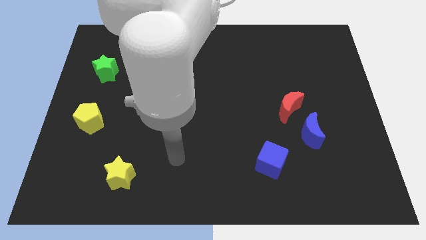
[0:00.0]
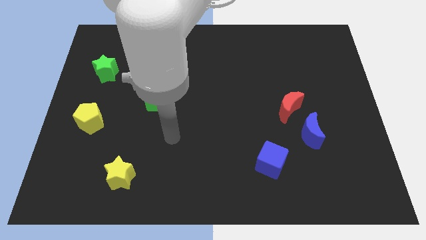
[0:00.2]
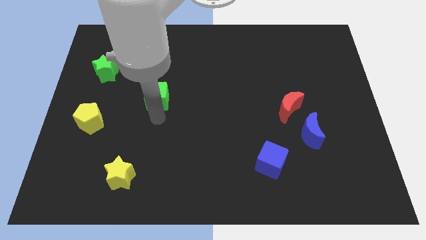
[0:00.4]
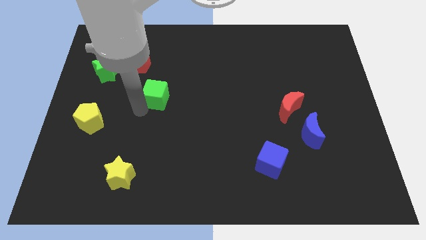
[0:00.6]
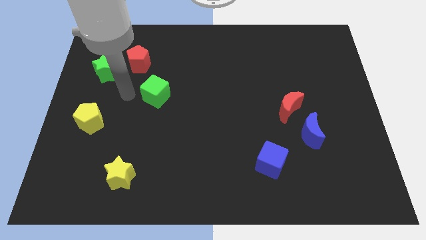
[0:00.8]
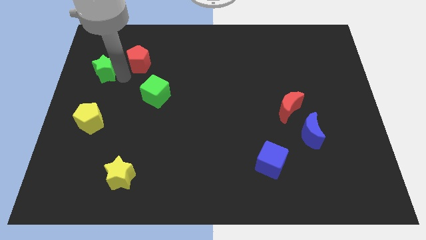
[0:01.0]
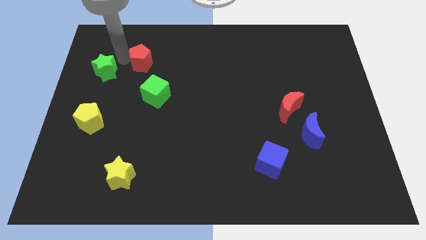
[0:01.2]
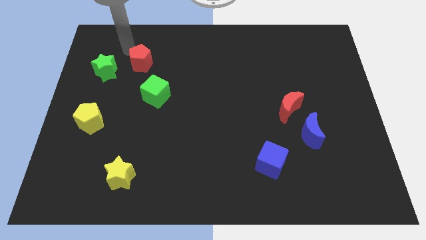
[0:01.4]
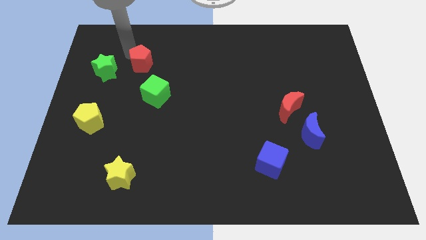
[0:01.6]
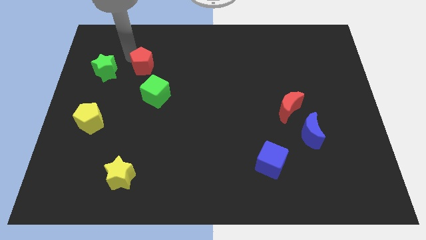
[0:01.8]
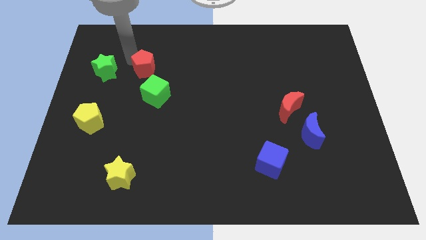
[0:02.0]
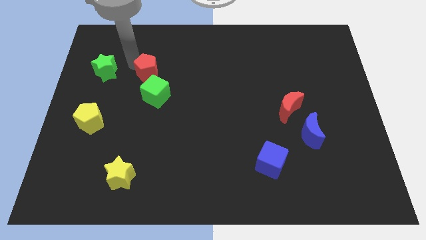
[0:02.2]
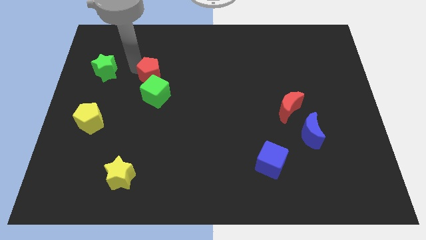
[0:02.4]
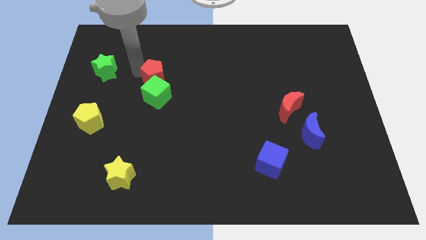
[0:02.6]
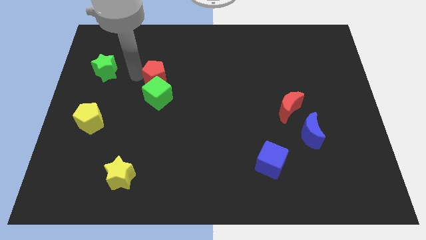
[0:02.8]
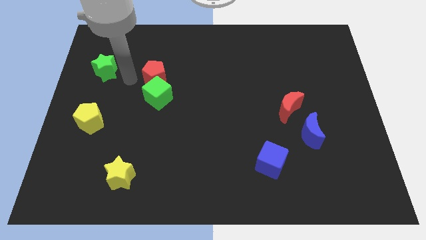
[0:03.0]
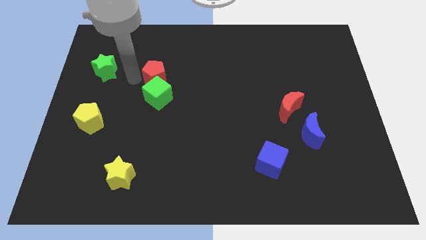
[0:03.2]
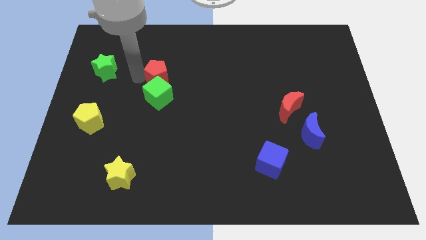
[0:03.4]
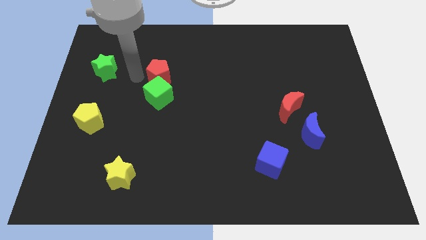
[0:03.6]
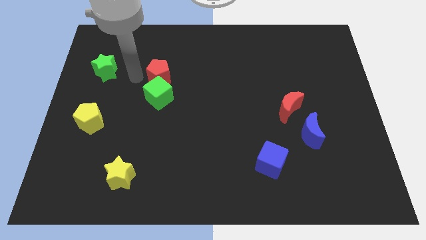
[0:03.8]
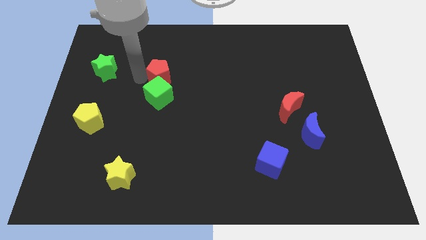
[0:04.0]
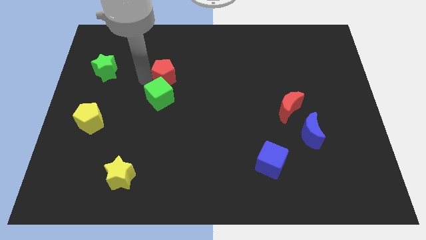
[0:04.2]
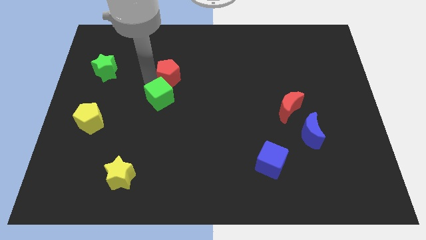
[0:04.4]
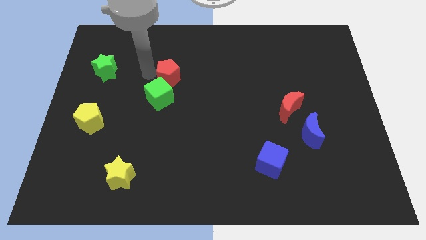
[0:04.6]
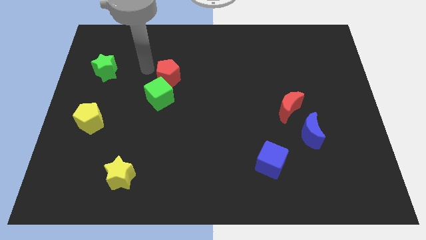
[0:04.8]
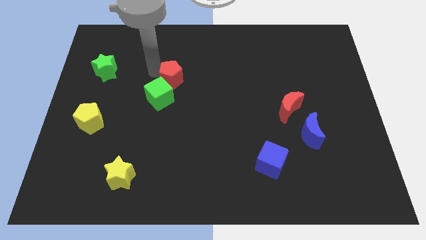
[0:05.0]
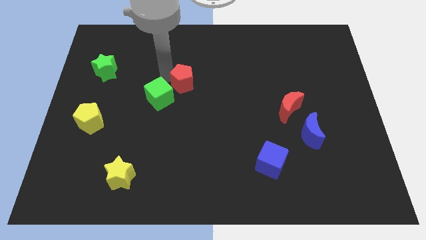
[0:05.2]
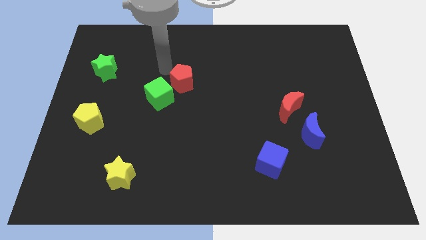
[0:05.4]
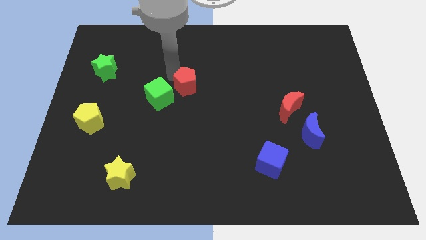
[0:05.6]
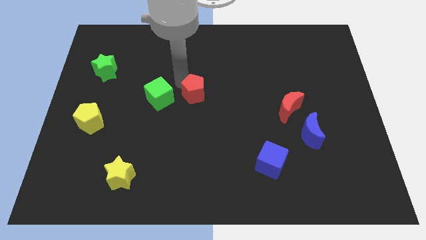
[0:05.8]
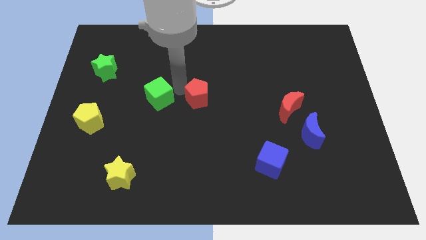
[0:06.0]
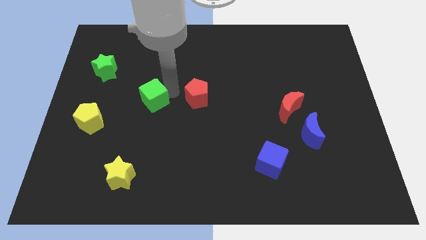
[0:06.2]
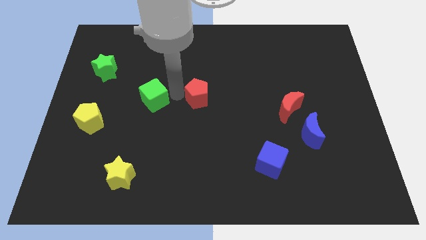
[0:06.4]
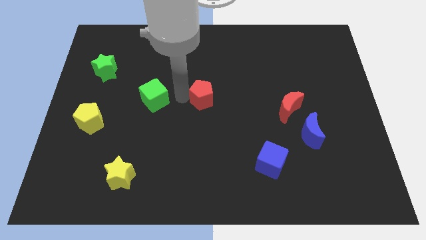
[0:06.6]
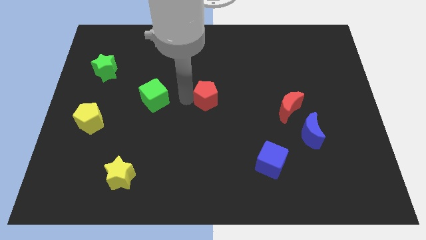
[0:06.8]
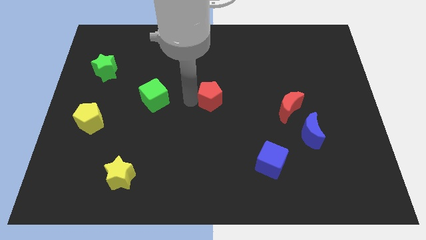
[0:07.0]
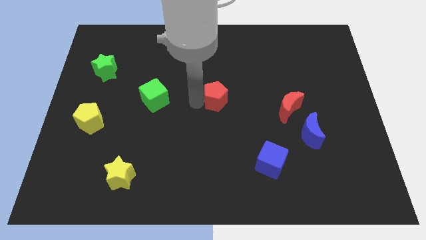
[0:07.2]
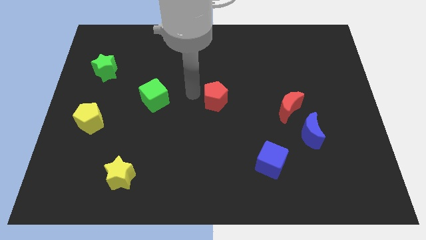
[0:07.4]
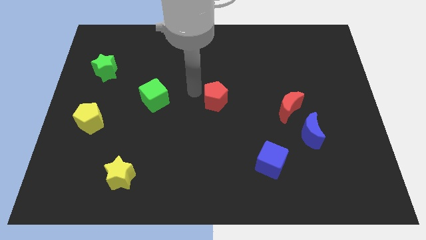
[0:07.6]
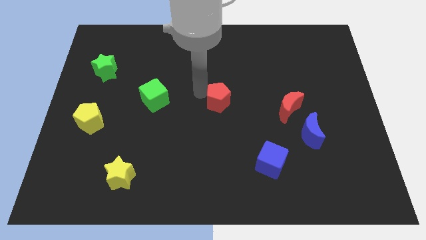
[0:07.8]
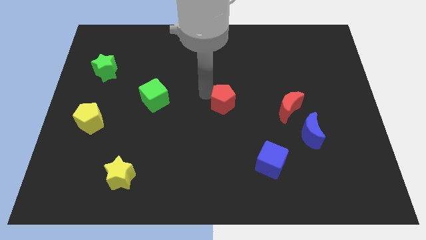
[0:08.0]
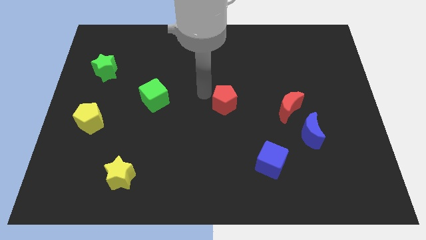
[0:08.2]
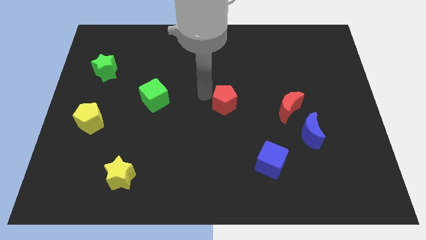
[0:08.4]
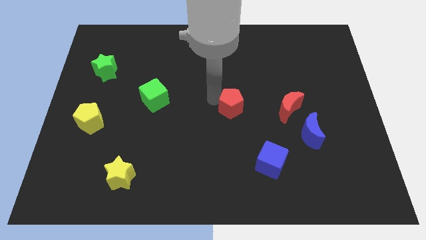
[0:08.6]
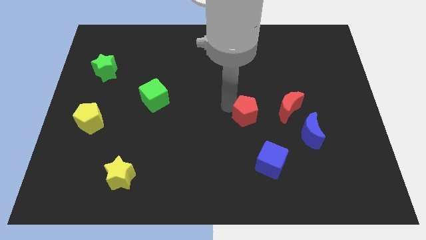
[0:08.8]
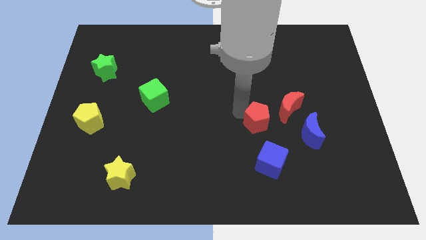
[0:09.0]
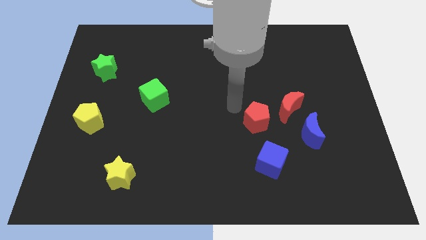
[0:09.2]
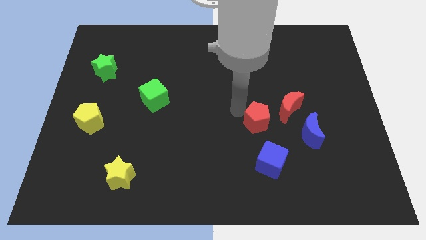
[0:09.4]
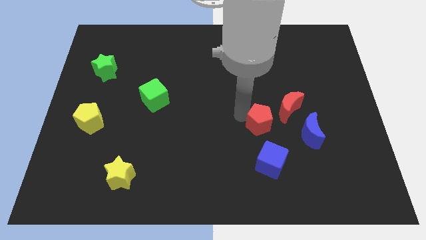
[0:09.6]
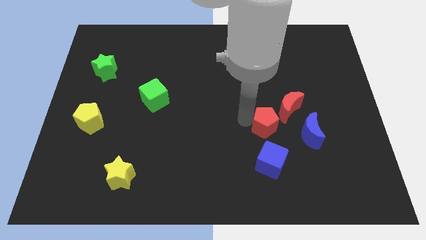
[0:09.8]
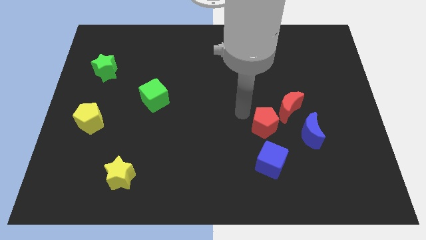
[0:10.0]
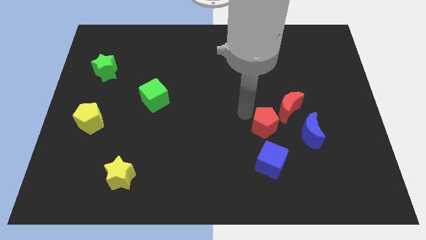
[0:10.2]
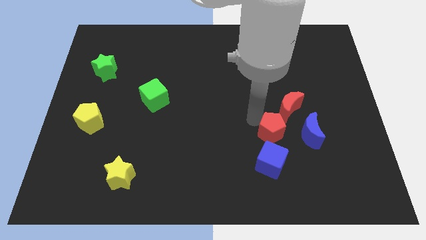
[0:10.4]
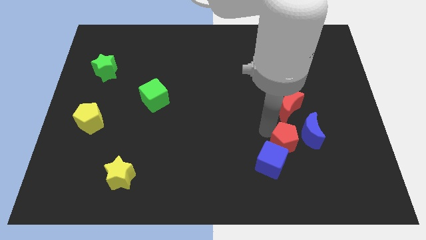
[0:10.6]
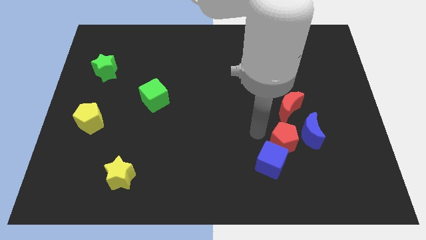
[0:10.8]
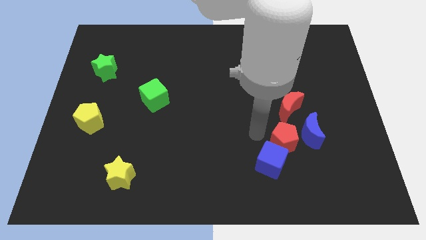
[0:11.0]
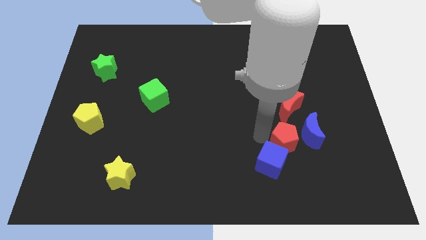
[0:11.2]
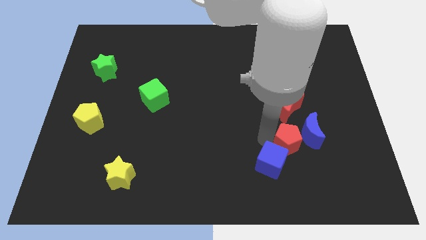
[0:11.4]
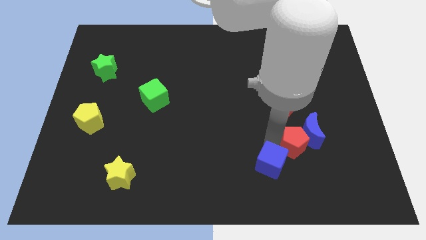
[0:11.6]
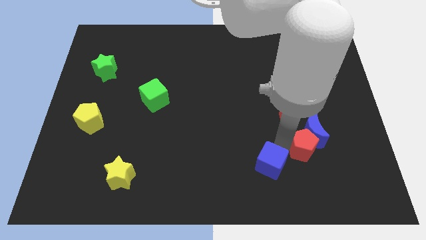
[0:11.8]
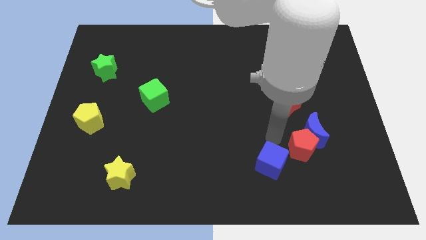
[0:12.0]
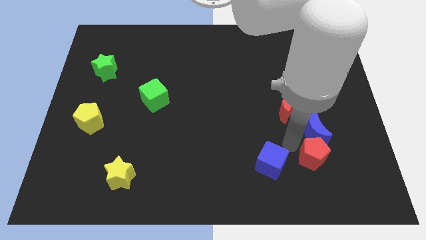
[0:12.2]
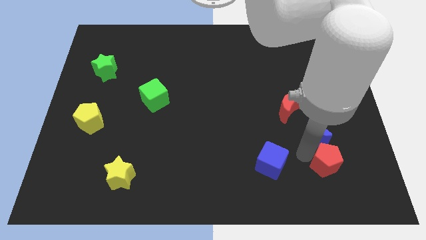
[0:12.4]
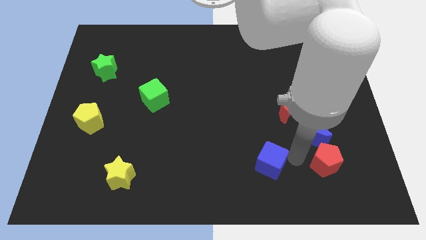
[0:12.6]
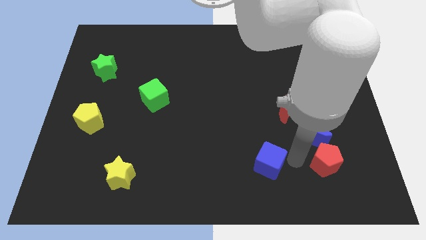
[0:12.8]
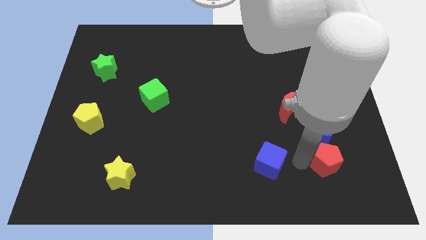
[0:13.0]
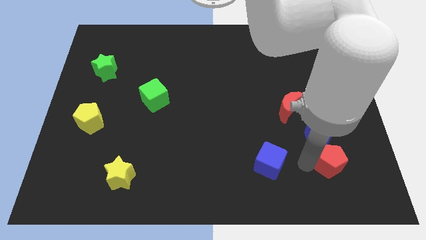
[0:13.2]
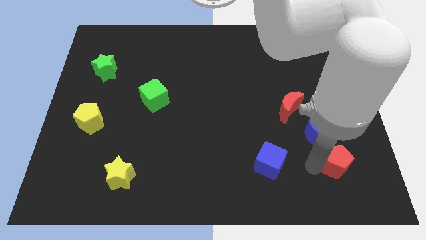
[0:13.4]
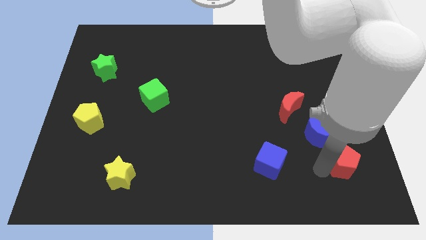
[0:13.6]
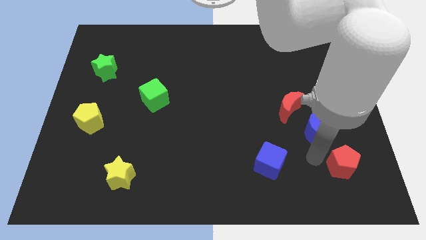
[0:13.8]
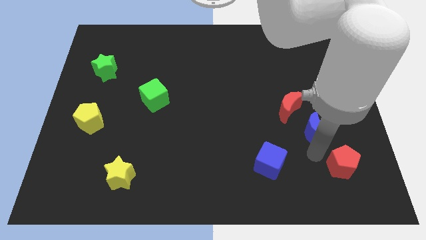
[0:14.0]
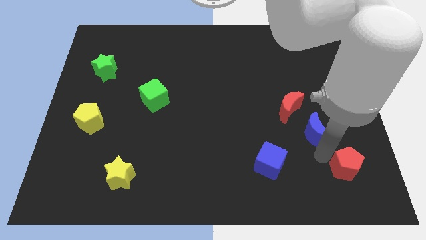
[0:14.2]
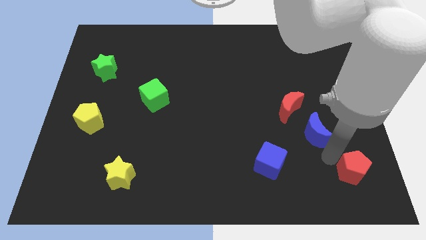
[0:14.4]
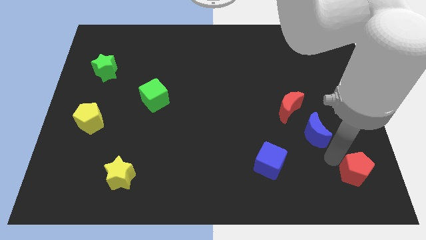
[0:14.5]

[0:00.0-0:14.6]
push the red pentagon to the bottom right

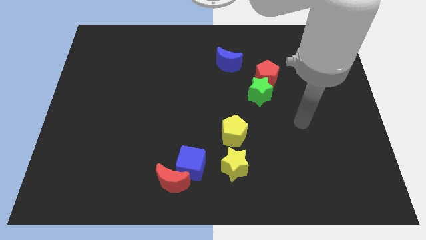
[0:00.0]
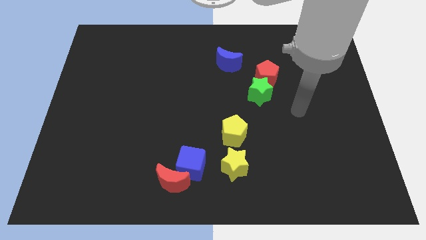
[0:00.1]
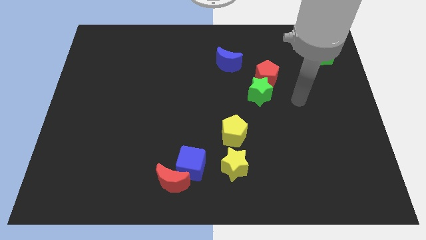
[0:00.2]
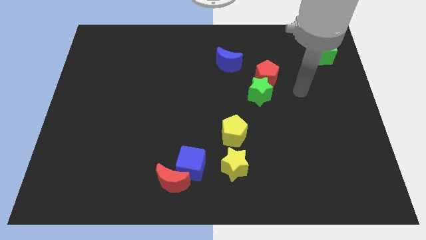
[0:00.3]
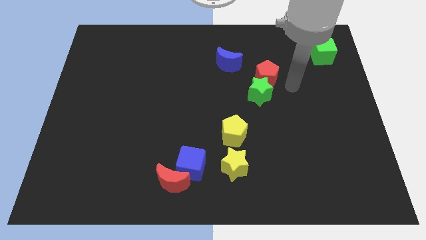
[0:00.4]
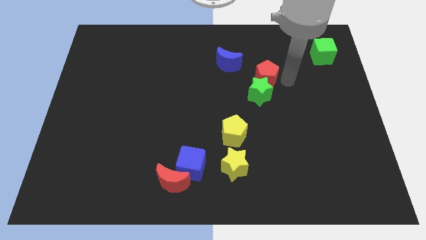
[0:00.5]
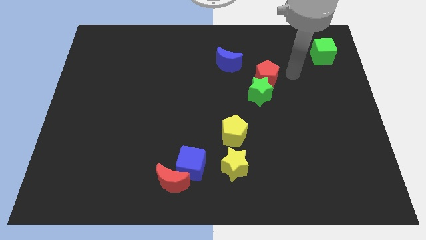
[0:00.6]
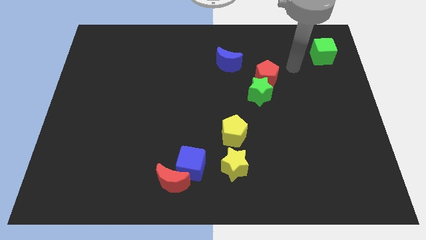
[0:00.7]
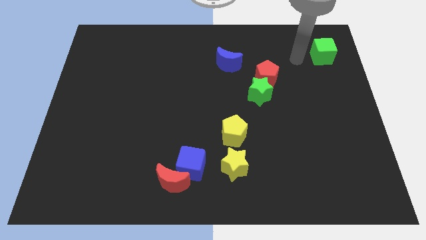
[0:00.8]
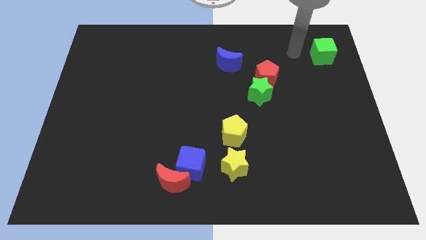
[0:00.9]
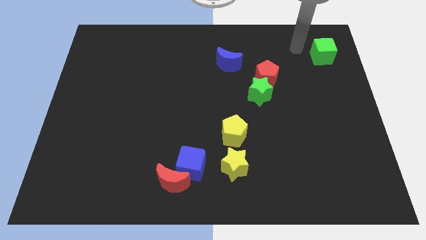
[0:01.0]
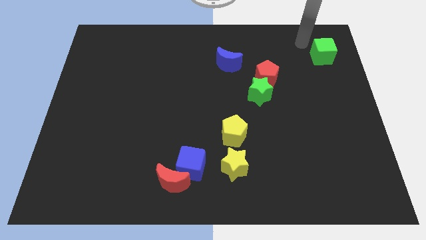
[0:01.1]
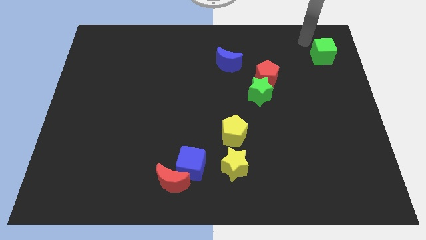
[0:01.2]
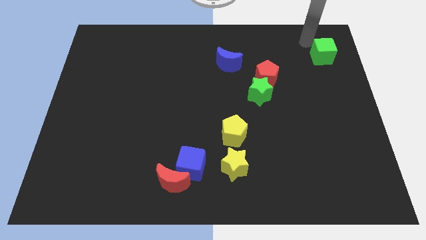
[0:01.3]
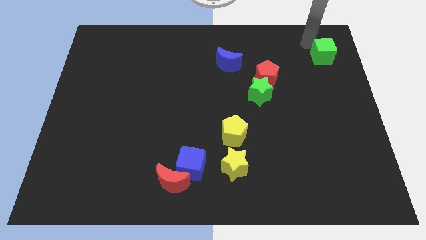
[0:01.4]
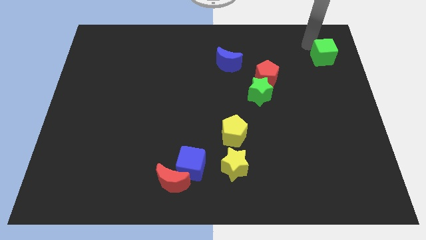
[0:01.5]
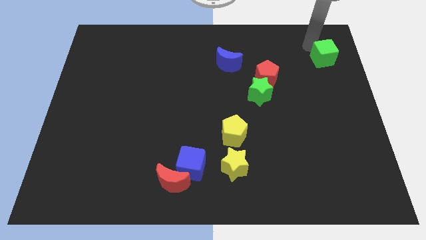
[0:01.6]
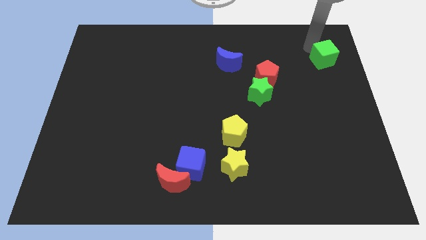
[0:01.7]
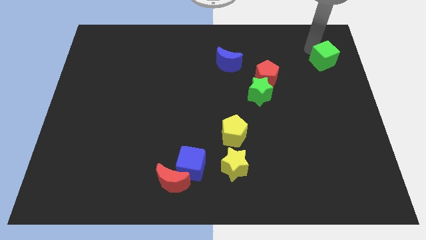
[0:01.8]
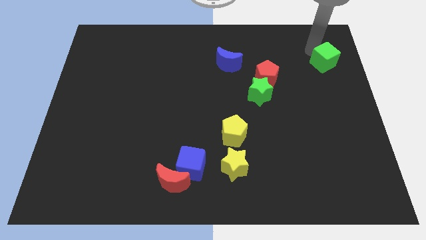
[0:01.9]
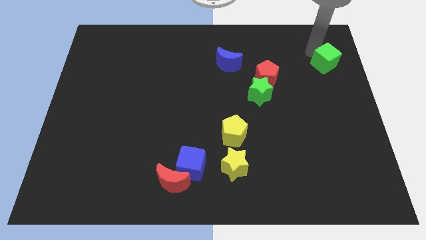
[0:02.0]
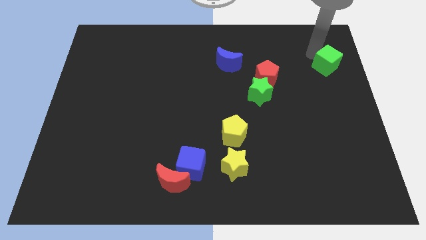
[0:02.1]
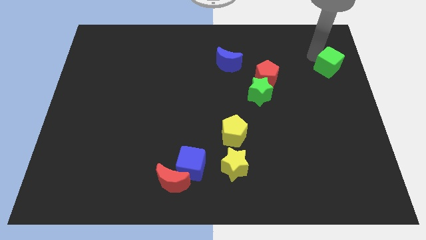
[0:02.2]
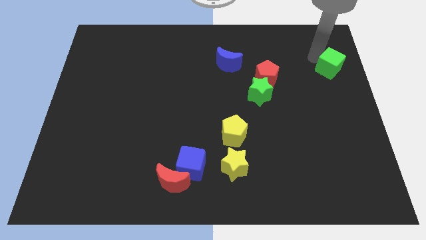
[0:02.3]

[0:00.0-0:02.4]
put the green cube to the center right
